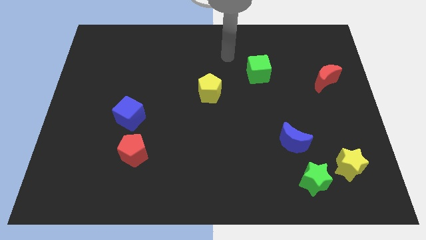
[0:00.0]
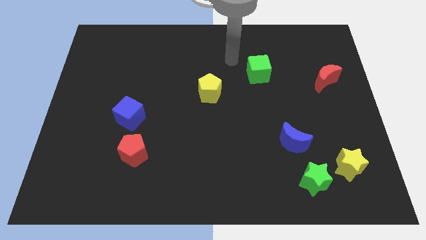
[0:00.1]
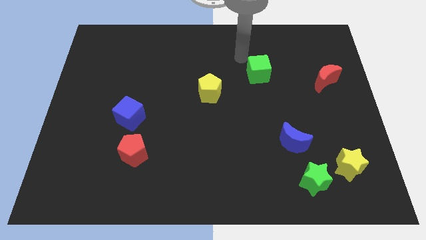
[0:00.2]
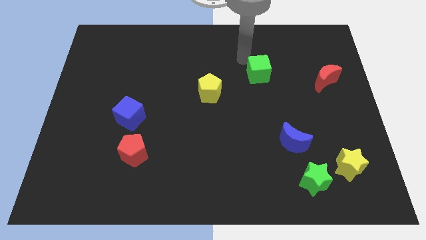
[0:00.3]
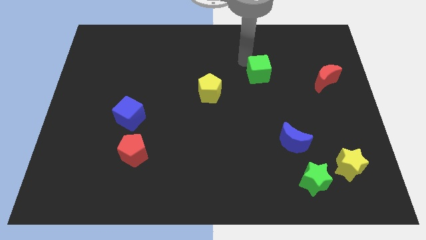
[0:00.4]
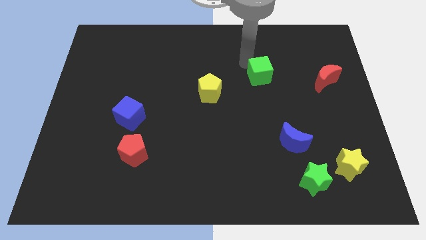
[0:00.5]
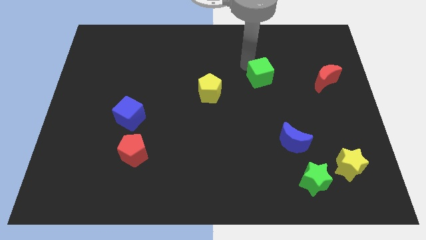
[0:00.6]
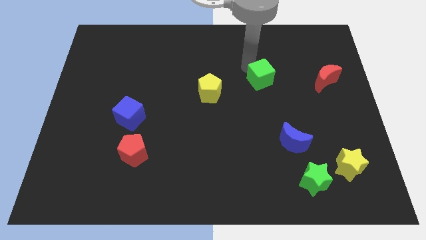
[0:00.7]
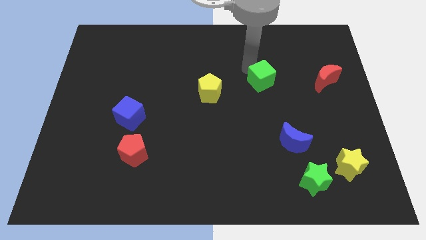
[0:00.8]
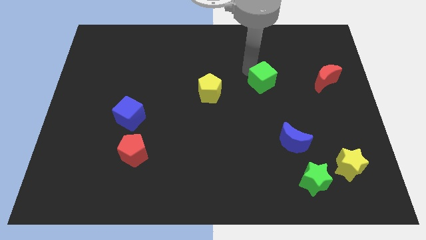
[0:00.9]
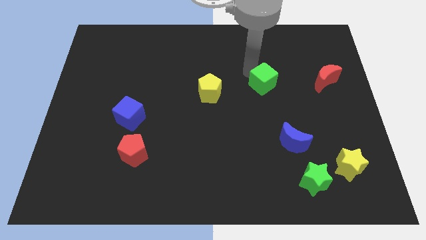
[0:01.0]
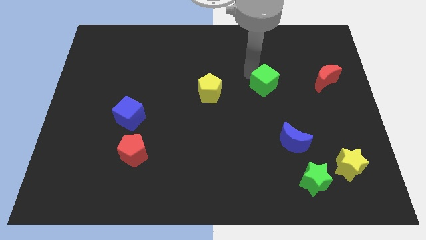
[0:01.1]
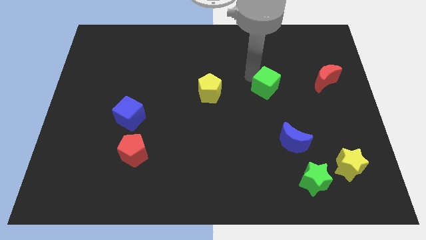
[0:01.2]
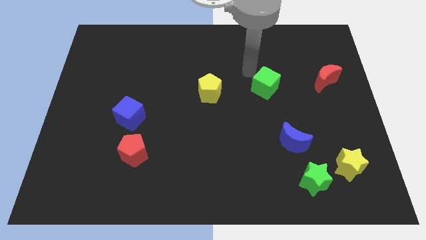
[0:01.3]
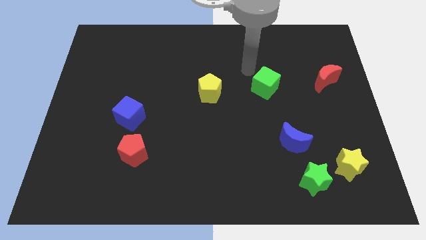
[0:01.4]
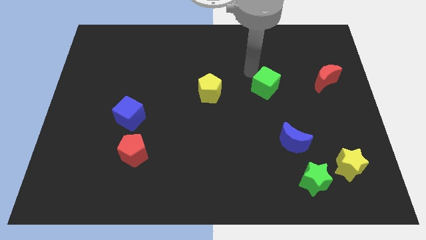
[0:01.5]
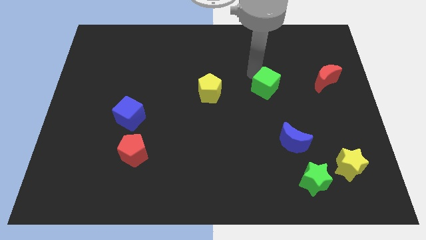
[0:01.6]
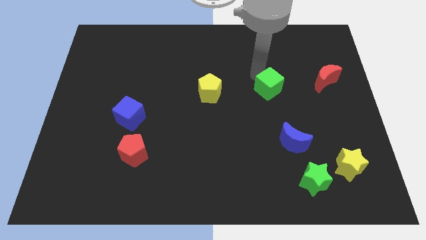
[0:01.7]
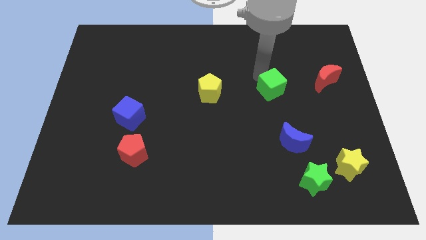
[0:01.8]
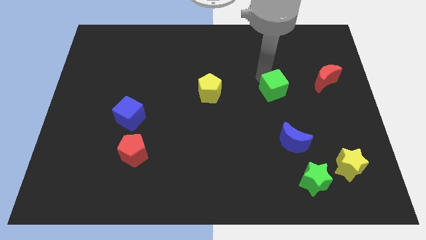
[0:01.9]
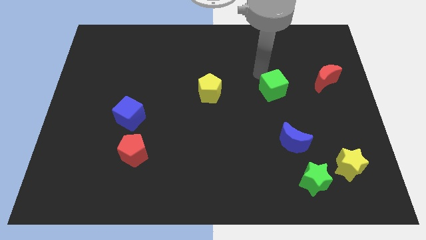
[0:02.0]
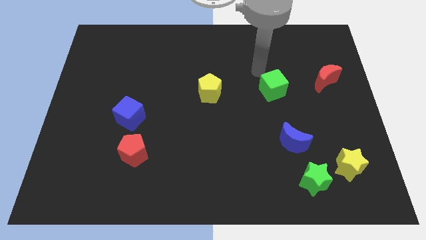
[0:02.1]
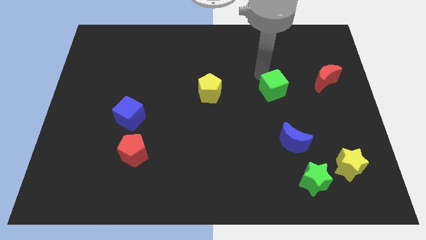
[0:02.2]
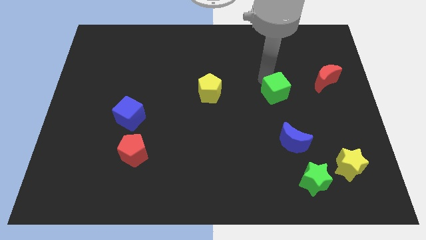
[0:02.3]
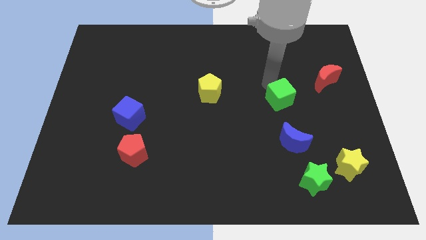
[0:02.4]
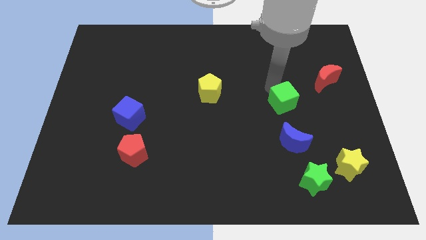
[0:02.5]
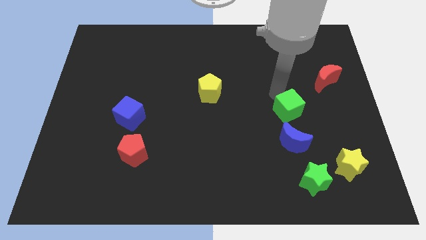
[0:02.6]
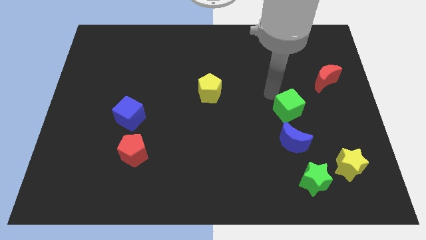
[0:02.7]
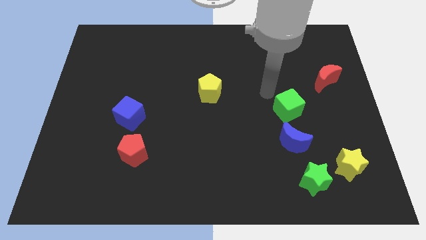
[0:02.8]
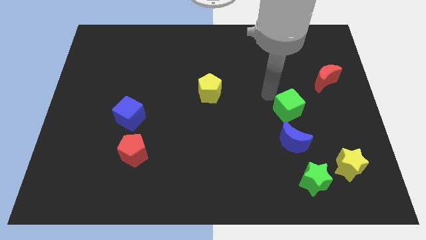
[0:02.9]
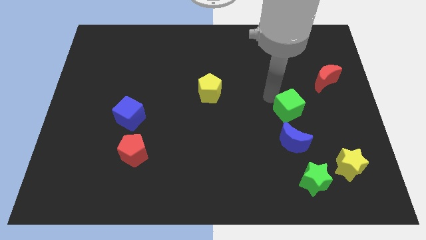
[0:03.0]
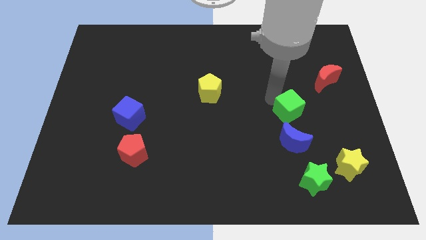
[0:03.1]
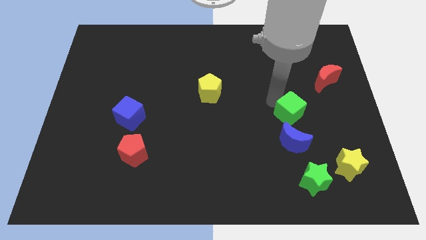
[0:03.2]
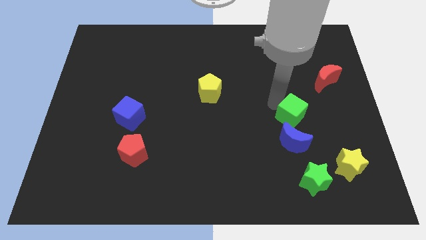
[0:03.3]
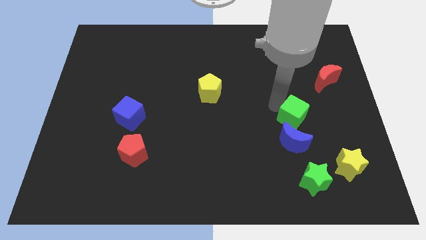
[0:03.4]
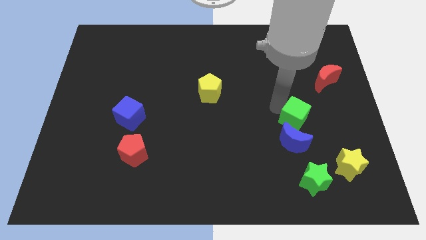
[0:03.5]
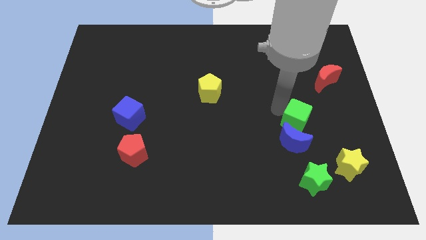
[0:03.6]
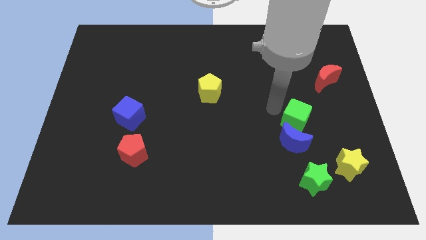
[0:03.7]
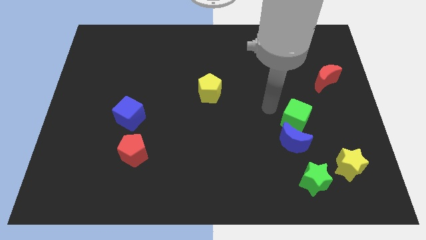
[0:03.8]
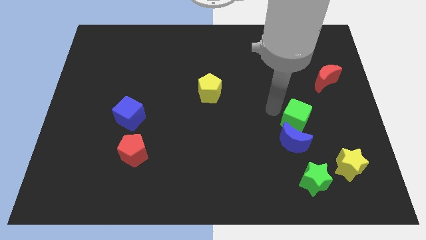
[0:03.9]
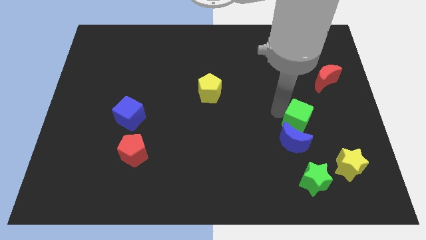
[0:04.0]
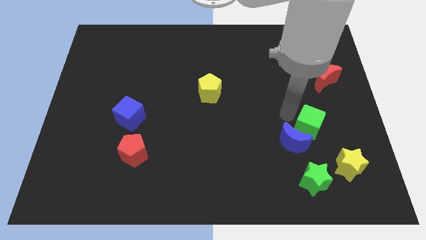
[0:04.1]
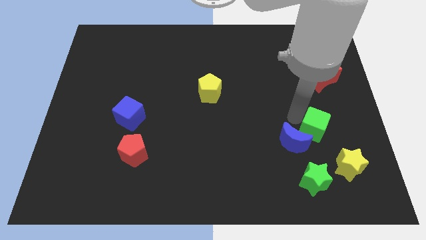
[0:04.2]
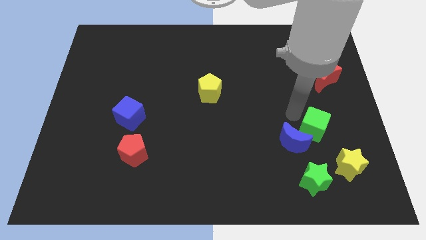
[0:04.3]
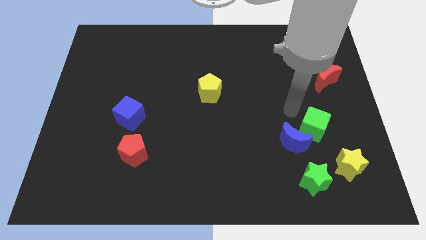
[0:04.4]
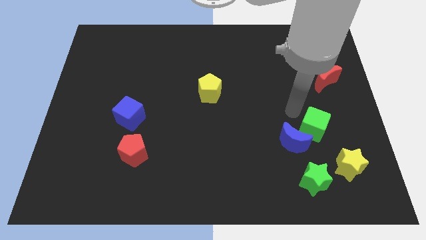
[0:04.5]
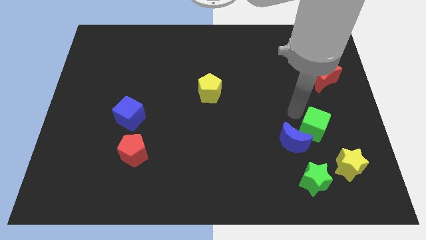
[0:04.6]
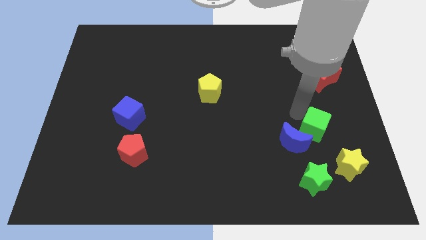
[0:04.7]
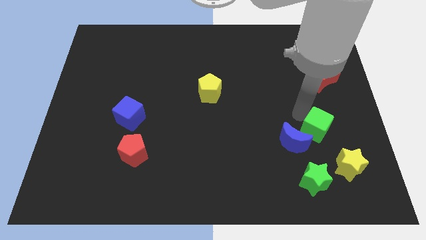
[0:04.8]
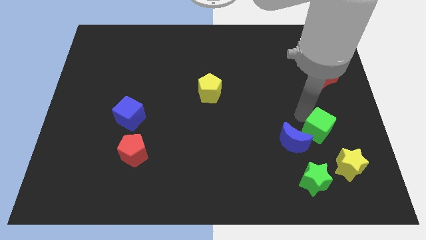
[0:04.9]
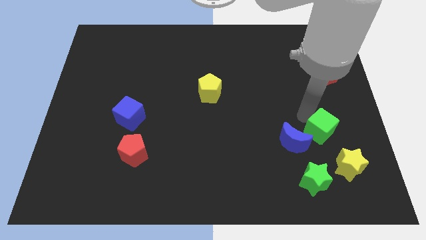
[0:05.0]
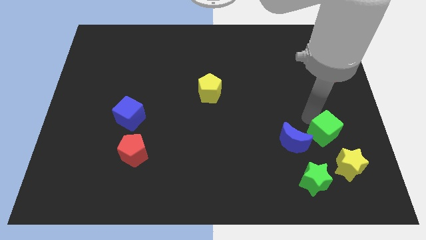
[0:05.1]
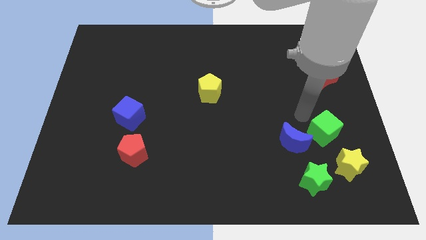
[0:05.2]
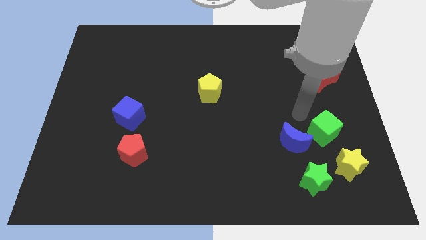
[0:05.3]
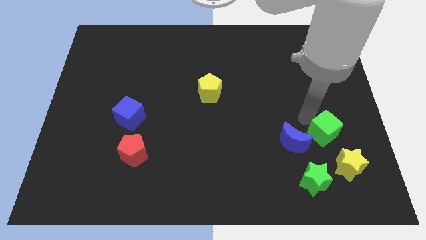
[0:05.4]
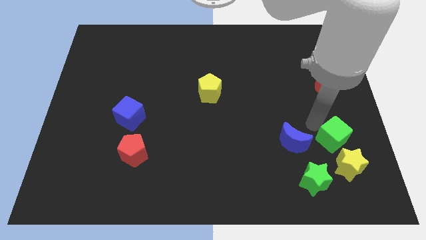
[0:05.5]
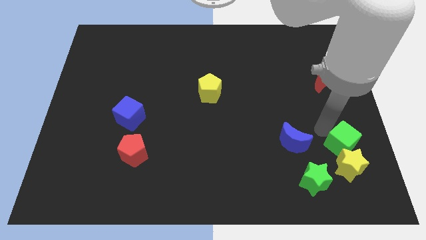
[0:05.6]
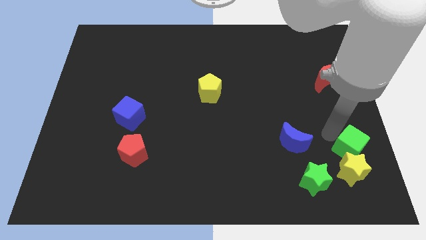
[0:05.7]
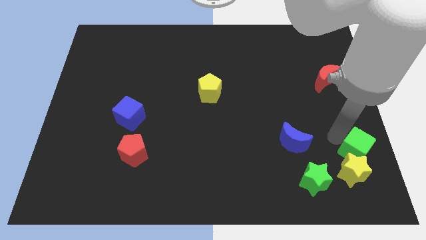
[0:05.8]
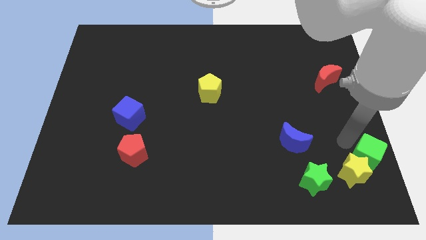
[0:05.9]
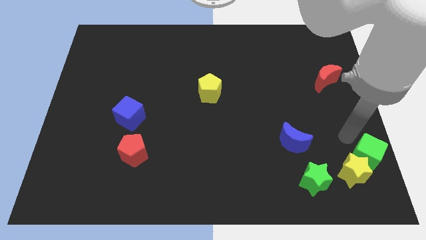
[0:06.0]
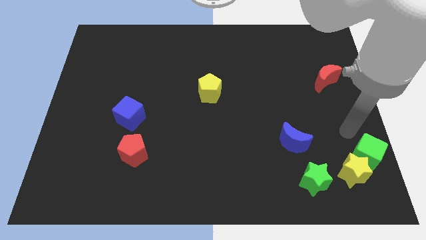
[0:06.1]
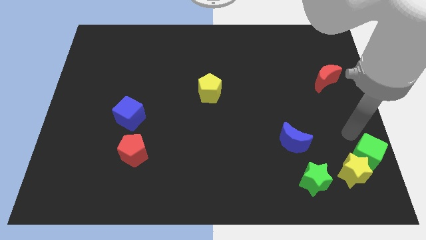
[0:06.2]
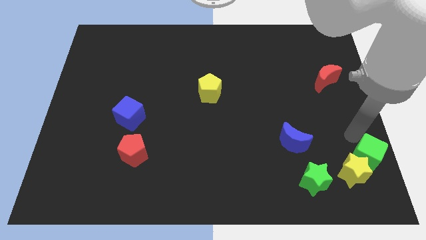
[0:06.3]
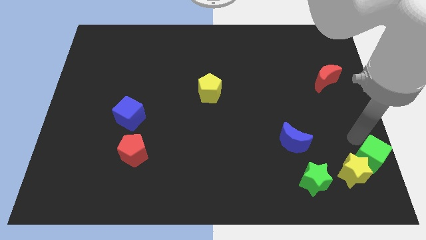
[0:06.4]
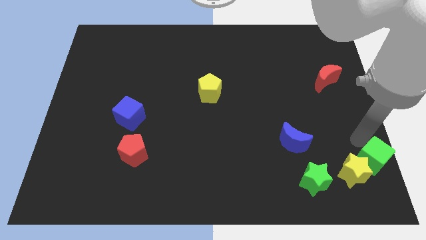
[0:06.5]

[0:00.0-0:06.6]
move the green cube to the lower right corner
